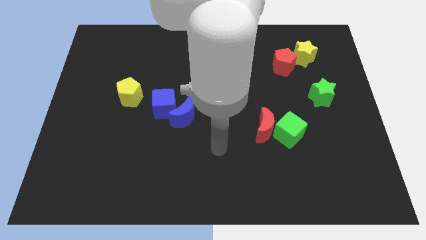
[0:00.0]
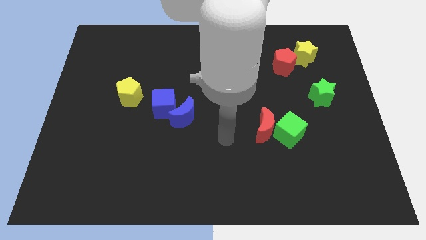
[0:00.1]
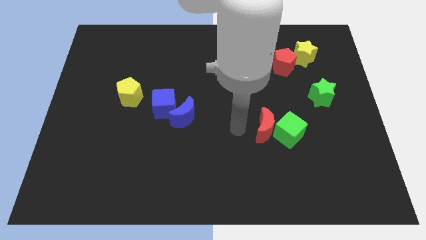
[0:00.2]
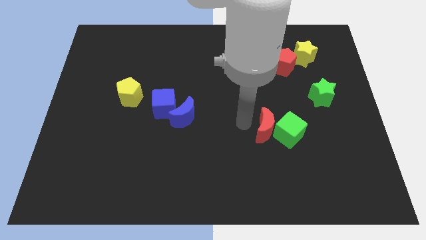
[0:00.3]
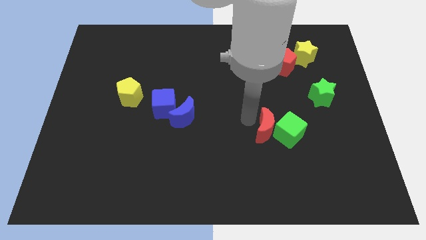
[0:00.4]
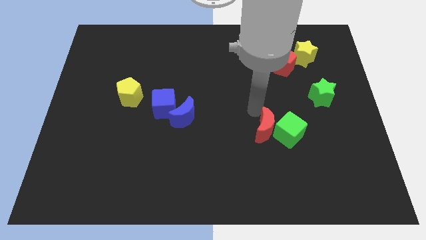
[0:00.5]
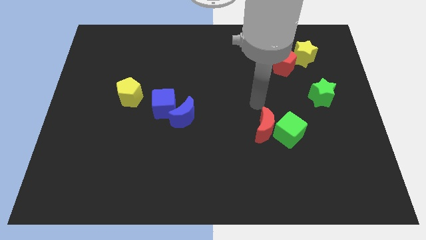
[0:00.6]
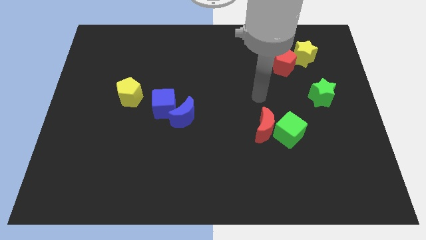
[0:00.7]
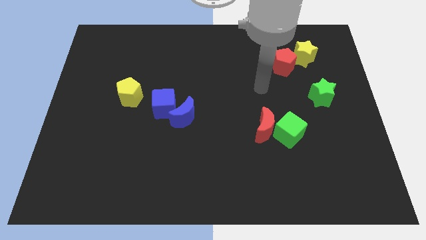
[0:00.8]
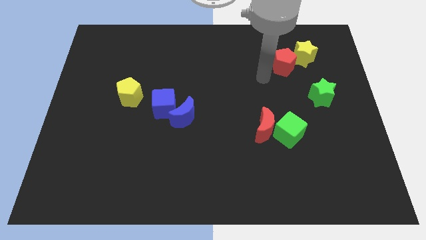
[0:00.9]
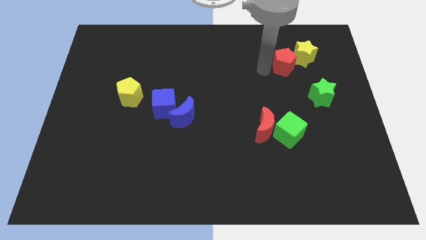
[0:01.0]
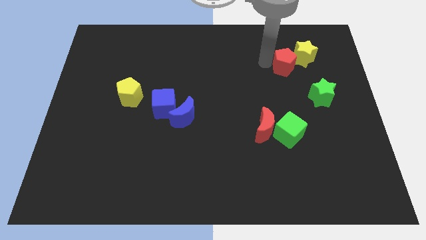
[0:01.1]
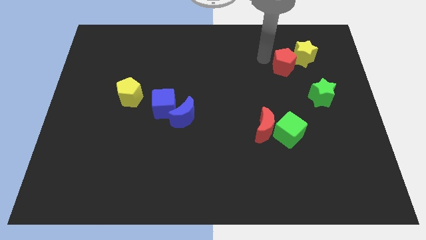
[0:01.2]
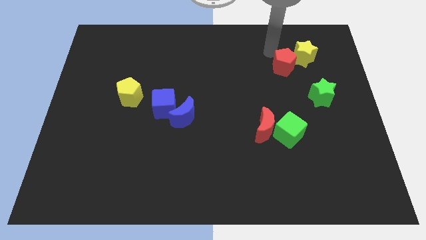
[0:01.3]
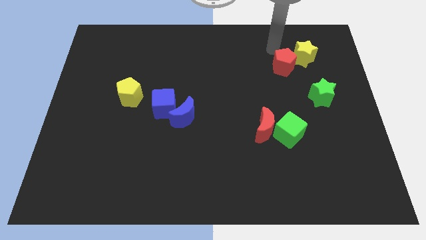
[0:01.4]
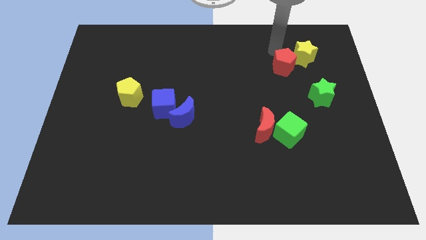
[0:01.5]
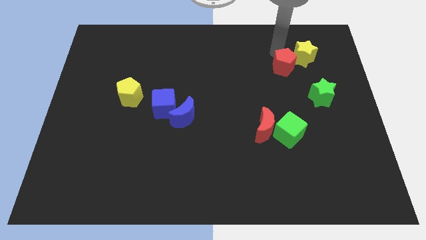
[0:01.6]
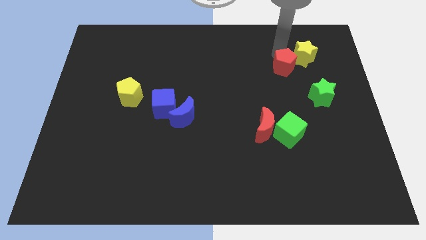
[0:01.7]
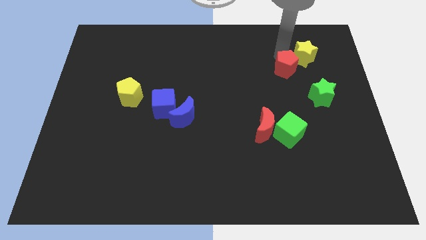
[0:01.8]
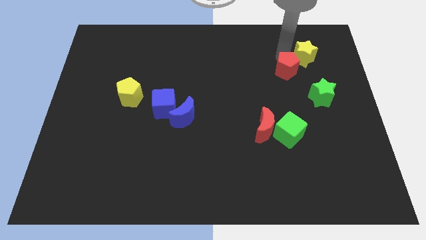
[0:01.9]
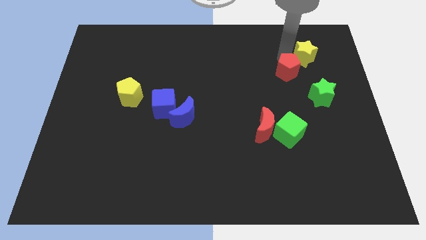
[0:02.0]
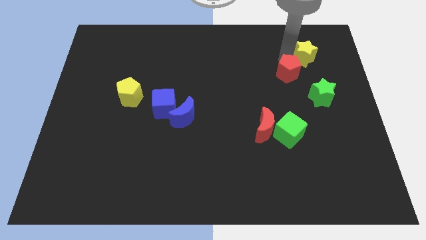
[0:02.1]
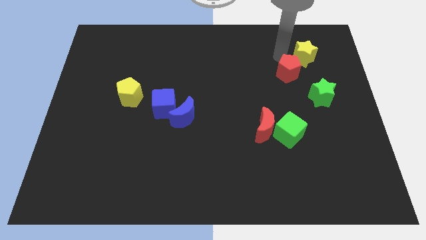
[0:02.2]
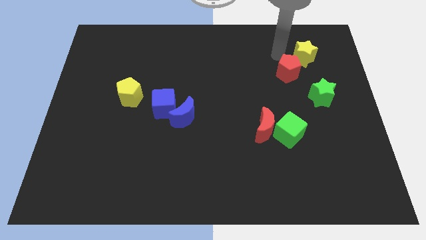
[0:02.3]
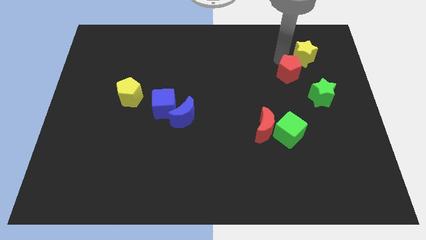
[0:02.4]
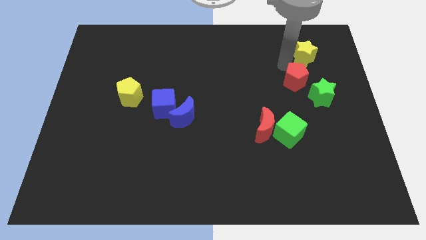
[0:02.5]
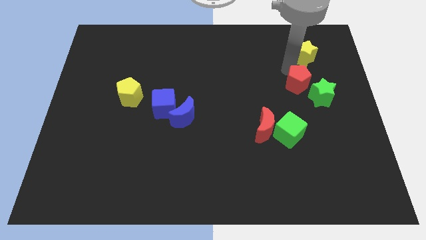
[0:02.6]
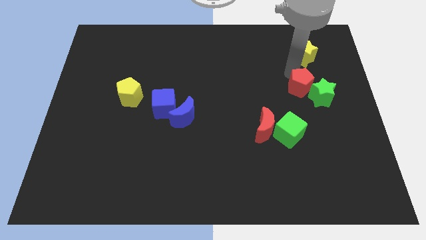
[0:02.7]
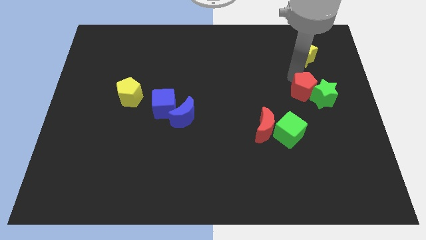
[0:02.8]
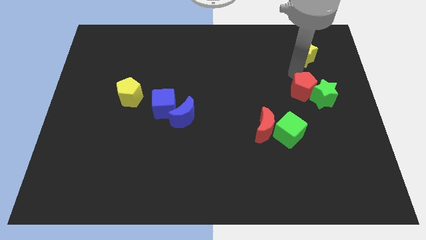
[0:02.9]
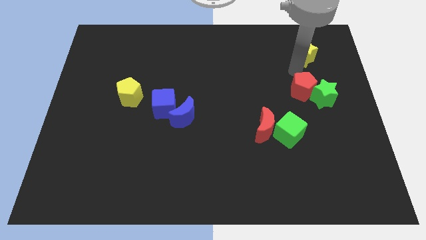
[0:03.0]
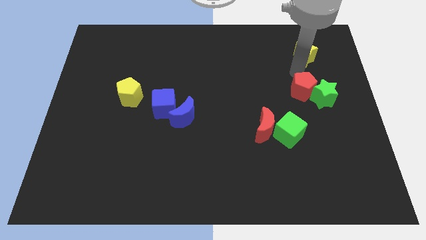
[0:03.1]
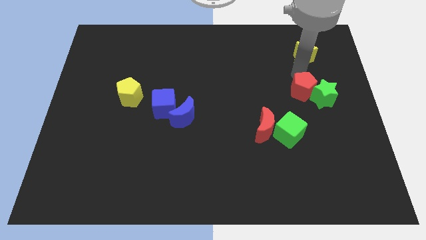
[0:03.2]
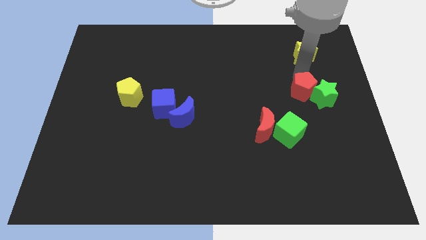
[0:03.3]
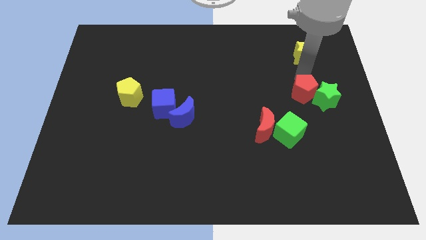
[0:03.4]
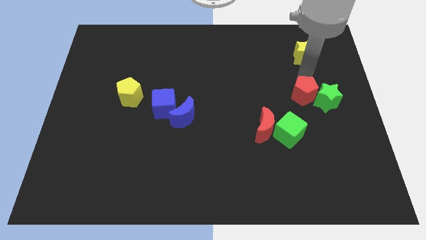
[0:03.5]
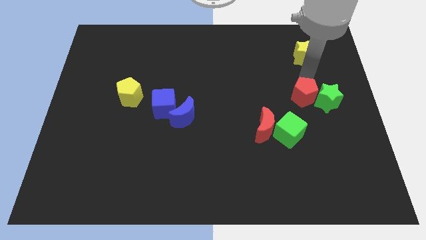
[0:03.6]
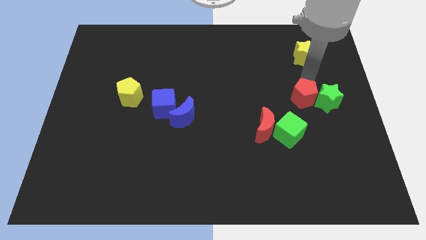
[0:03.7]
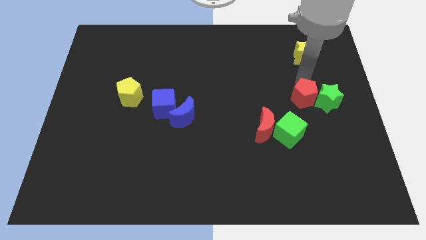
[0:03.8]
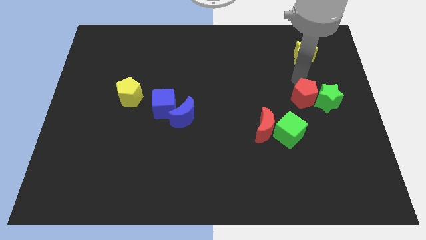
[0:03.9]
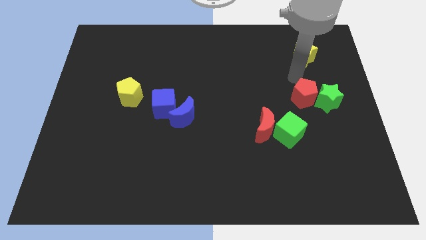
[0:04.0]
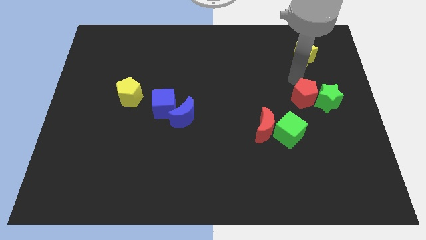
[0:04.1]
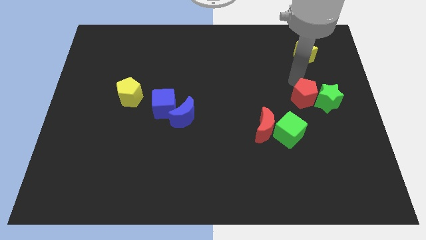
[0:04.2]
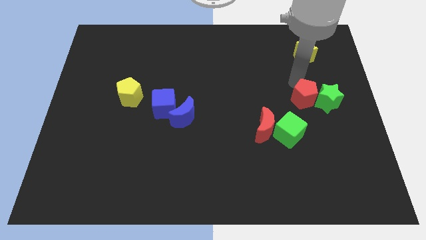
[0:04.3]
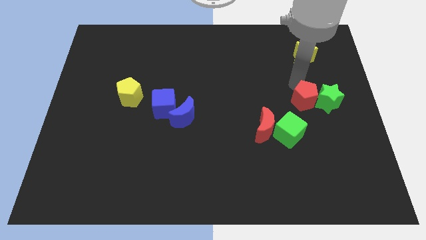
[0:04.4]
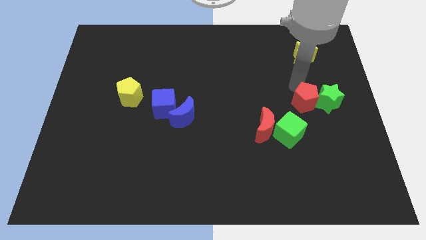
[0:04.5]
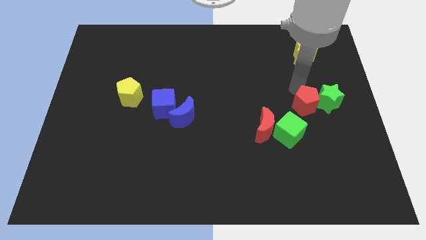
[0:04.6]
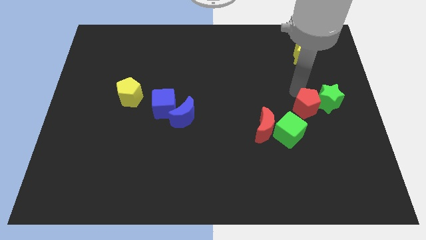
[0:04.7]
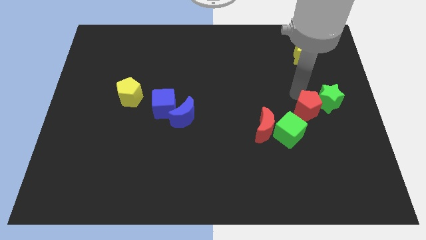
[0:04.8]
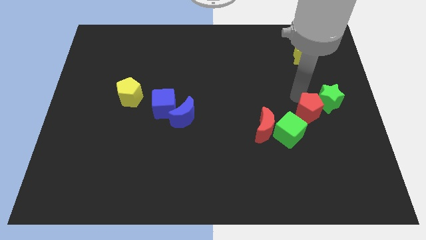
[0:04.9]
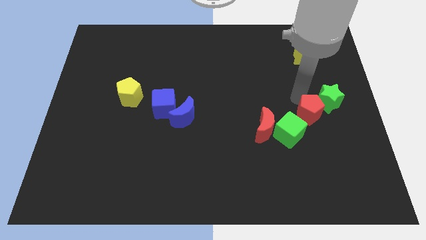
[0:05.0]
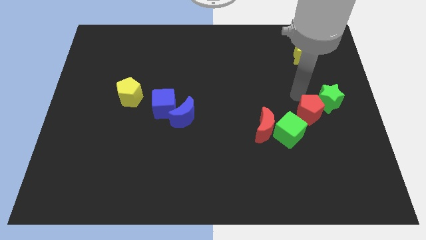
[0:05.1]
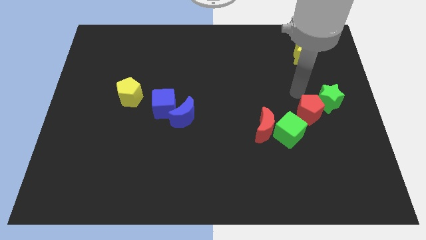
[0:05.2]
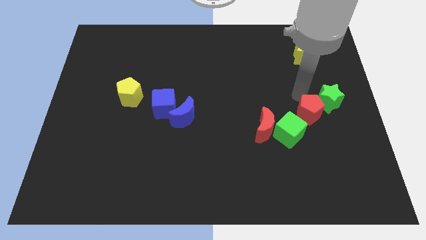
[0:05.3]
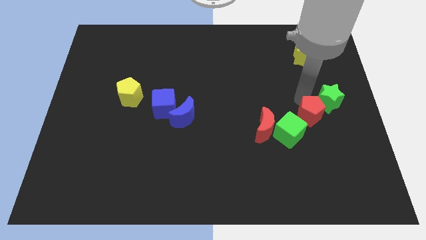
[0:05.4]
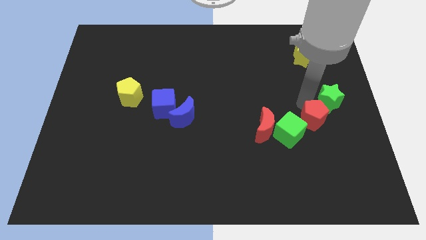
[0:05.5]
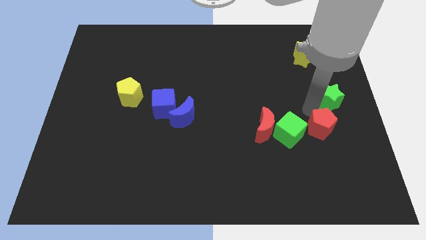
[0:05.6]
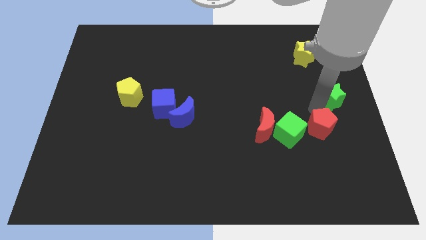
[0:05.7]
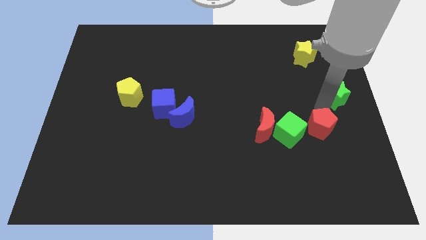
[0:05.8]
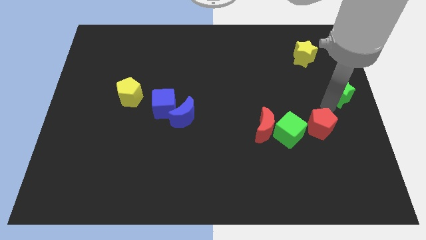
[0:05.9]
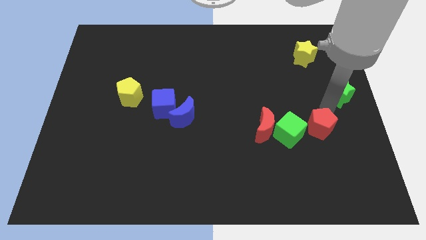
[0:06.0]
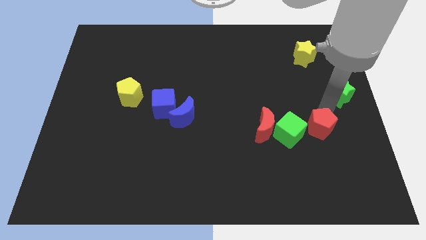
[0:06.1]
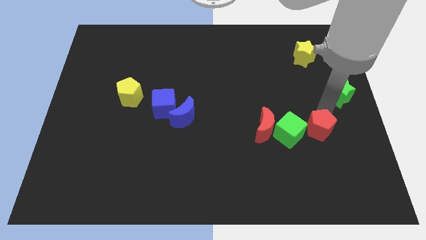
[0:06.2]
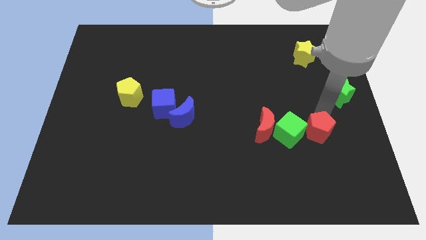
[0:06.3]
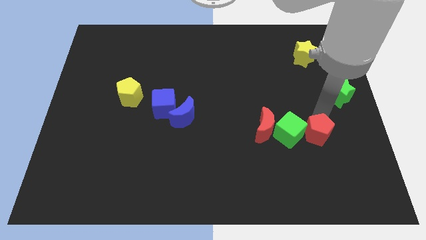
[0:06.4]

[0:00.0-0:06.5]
push the red pentagon downwards

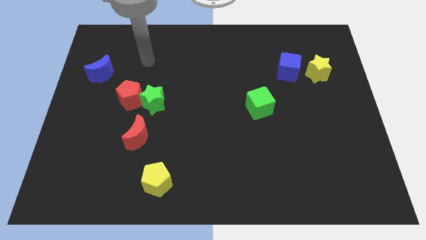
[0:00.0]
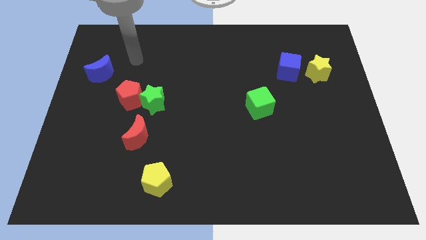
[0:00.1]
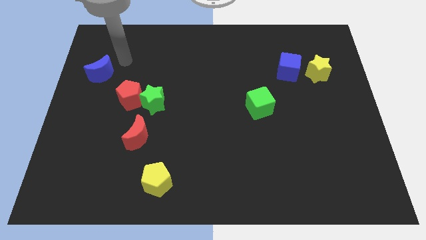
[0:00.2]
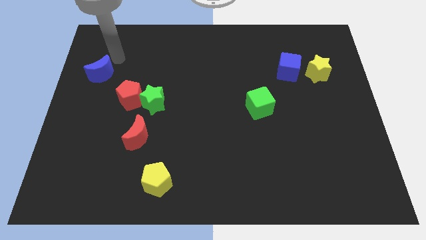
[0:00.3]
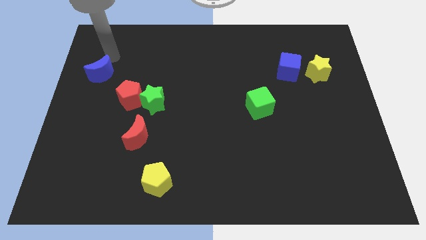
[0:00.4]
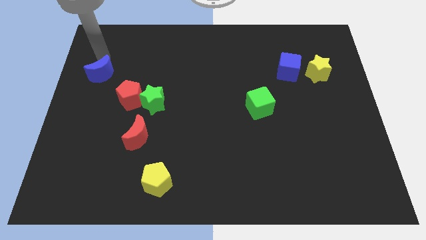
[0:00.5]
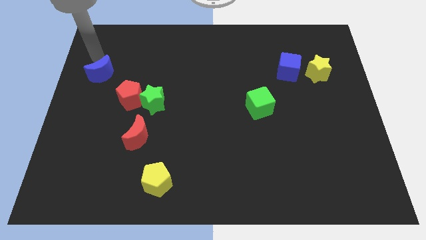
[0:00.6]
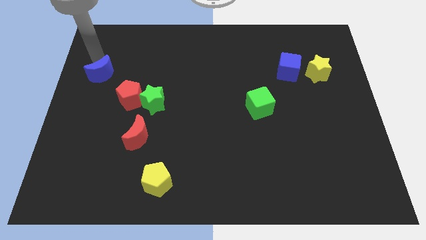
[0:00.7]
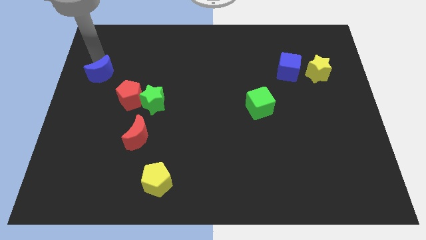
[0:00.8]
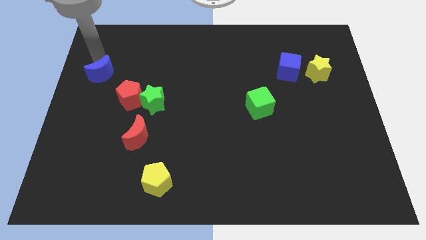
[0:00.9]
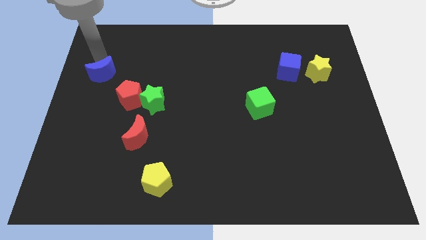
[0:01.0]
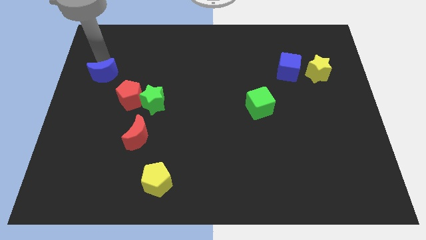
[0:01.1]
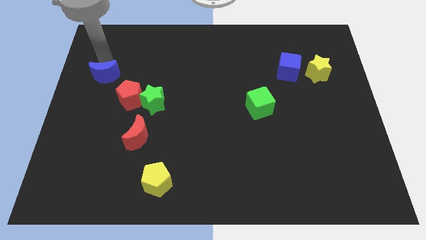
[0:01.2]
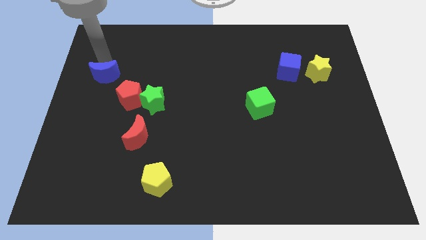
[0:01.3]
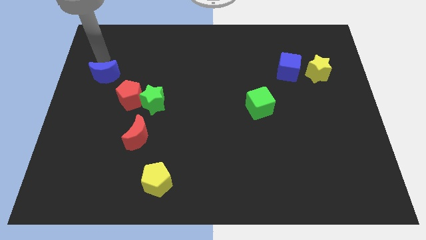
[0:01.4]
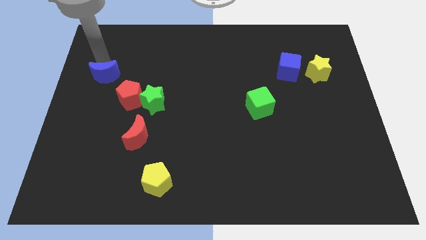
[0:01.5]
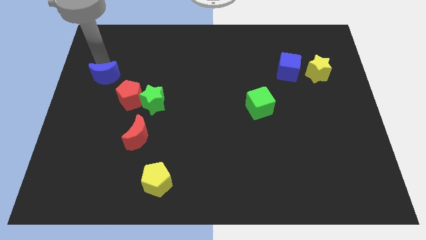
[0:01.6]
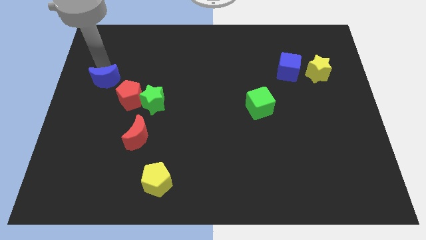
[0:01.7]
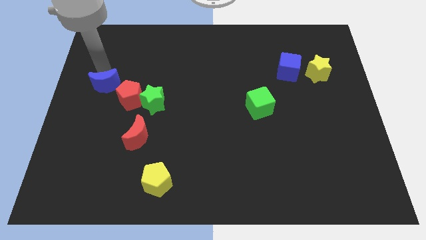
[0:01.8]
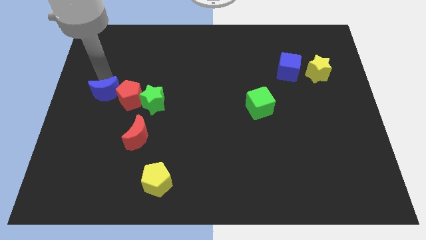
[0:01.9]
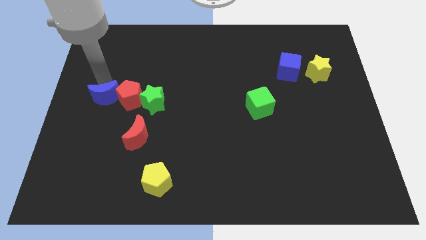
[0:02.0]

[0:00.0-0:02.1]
slightly move the blue moon diagonally down and right
